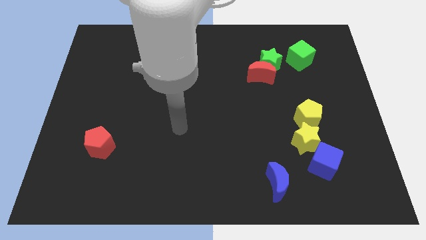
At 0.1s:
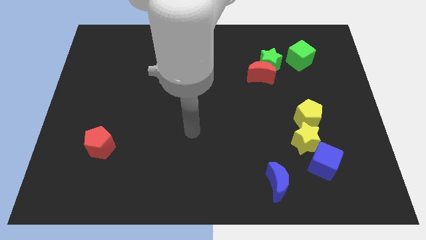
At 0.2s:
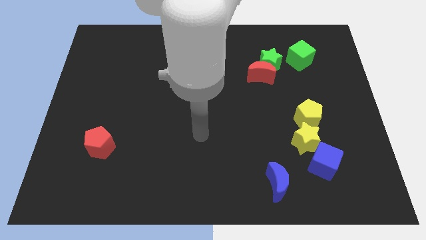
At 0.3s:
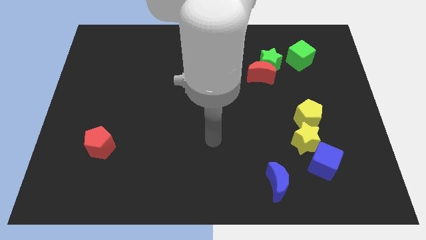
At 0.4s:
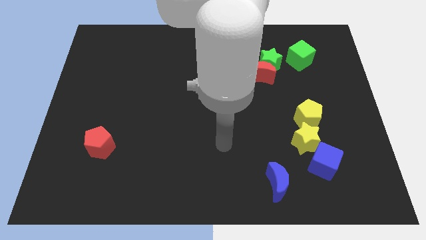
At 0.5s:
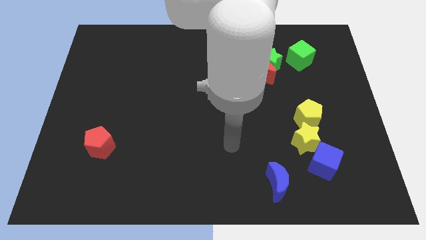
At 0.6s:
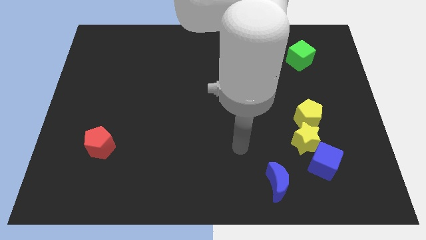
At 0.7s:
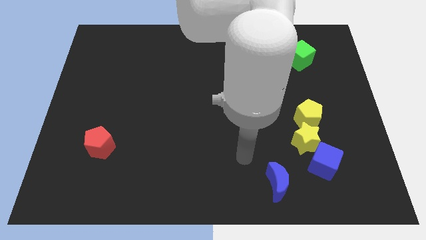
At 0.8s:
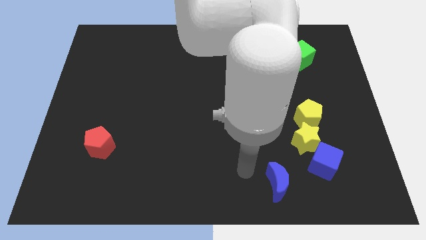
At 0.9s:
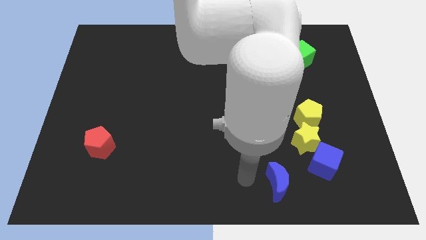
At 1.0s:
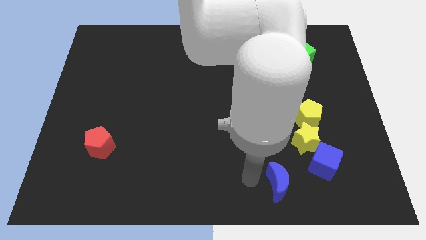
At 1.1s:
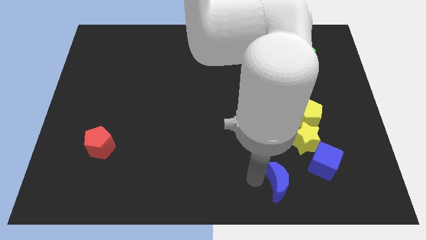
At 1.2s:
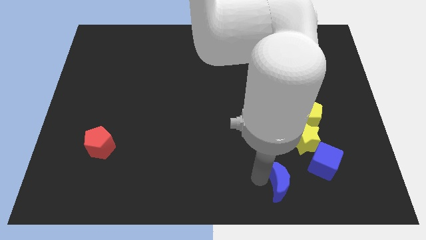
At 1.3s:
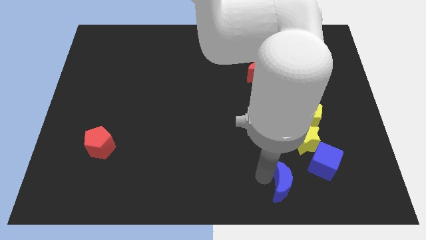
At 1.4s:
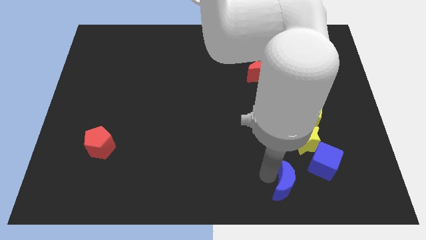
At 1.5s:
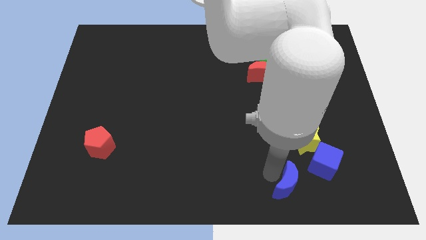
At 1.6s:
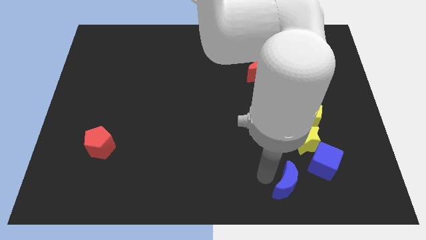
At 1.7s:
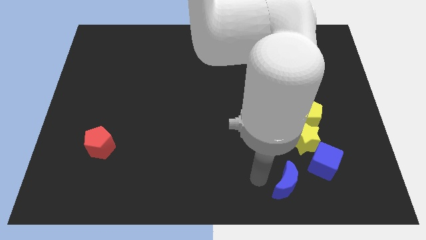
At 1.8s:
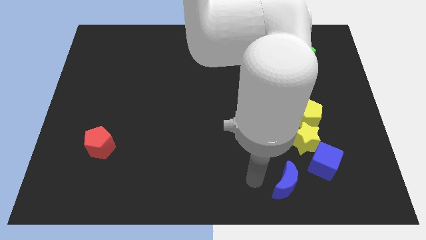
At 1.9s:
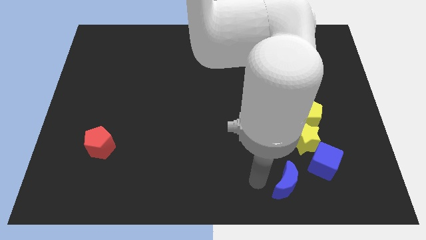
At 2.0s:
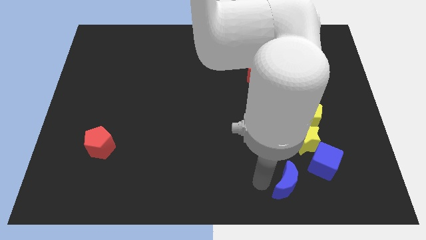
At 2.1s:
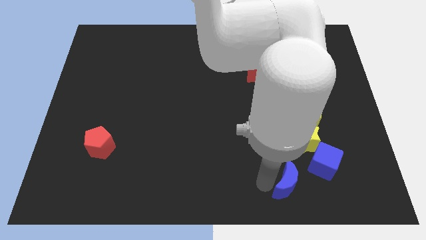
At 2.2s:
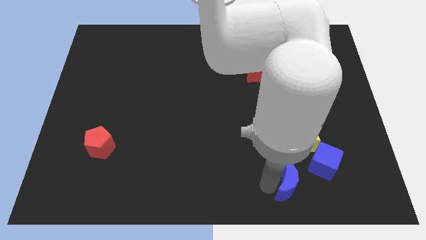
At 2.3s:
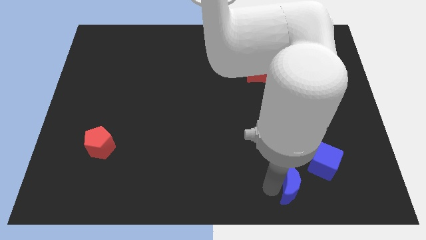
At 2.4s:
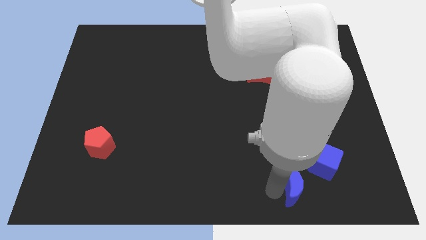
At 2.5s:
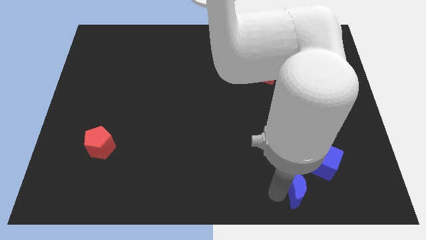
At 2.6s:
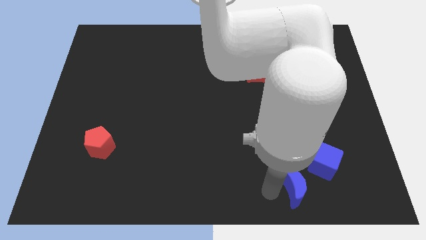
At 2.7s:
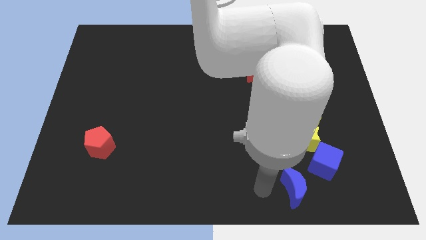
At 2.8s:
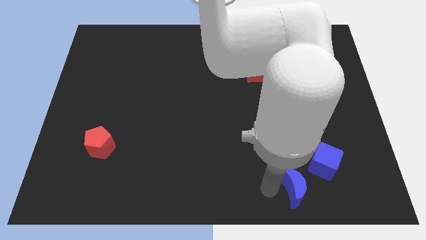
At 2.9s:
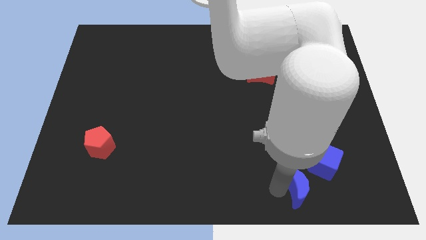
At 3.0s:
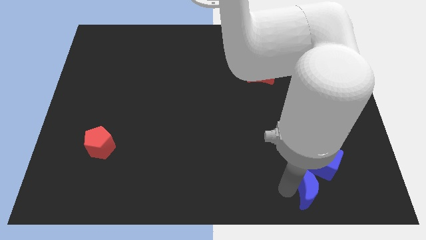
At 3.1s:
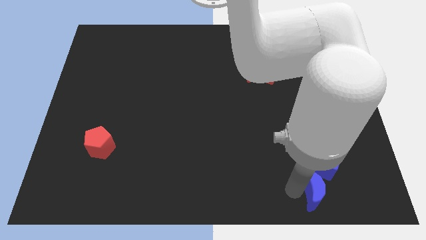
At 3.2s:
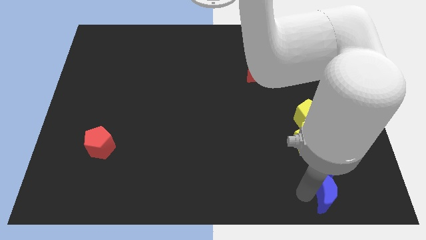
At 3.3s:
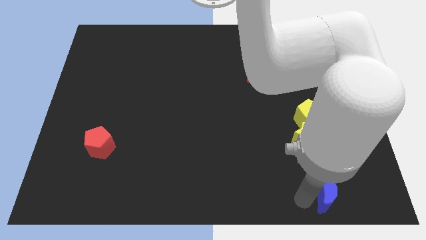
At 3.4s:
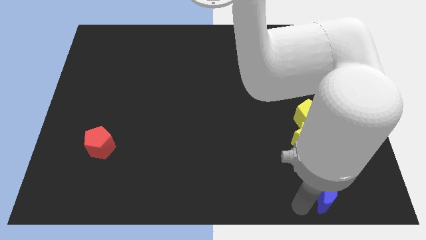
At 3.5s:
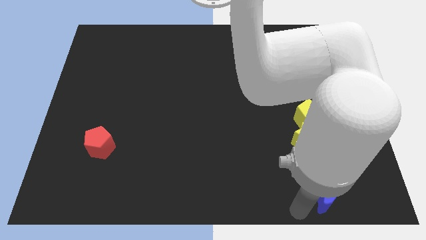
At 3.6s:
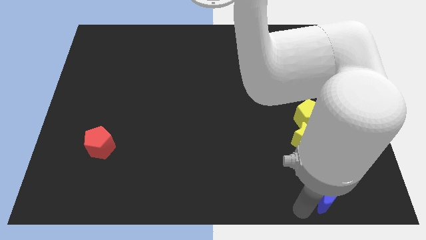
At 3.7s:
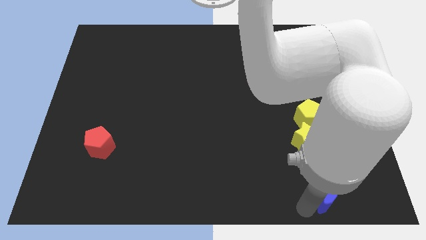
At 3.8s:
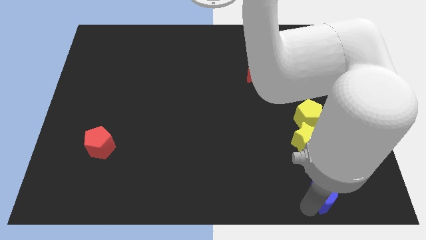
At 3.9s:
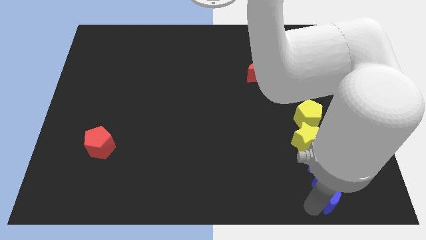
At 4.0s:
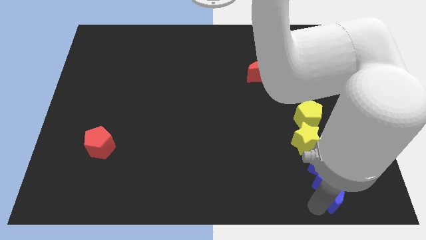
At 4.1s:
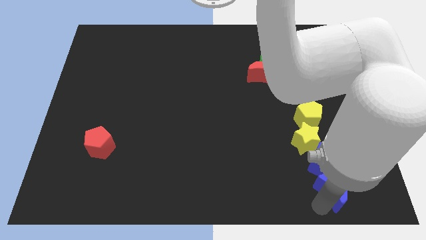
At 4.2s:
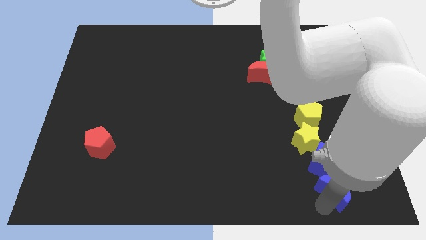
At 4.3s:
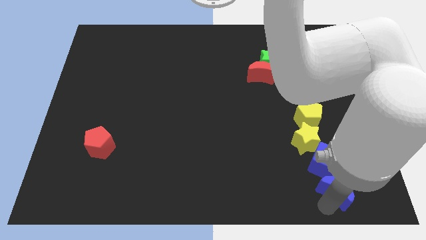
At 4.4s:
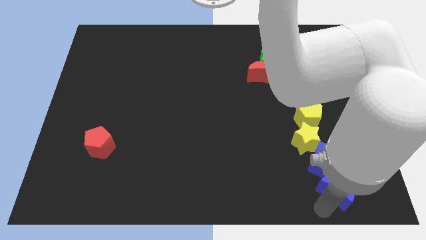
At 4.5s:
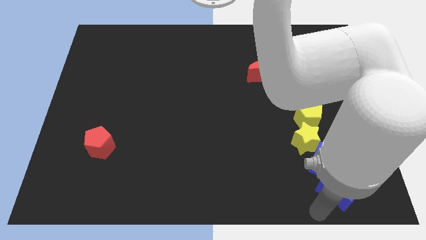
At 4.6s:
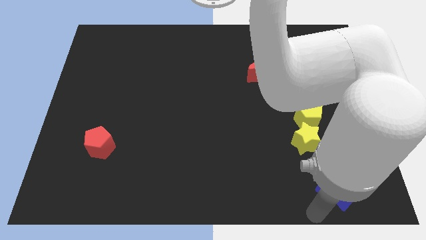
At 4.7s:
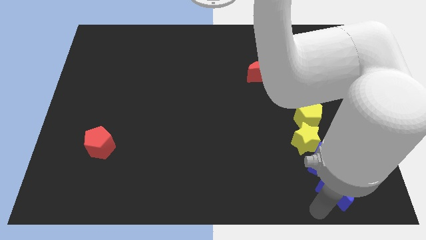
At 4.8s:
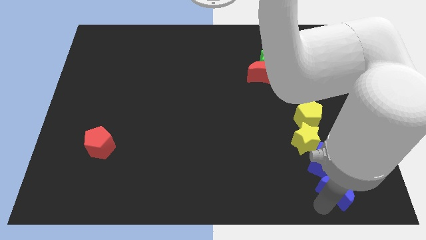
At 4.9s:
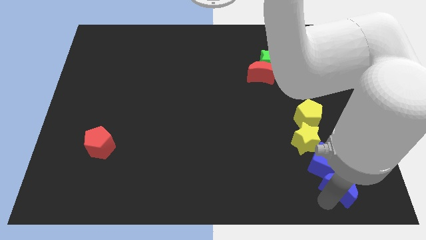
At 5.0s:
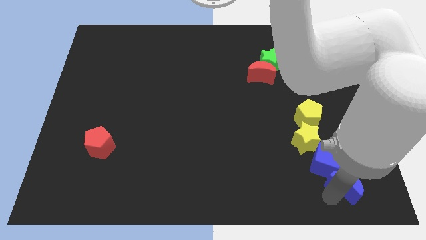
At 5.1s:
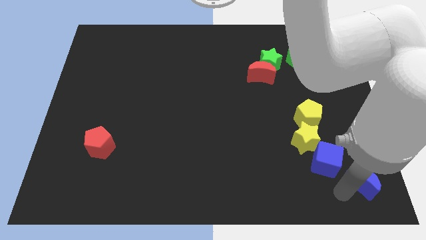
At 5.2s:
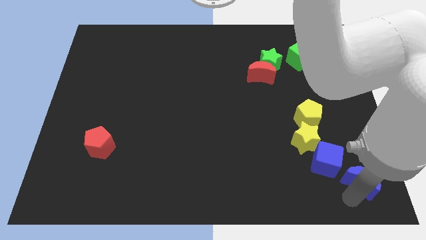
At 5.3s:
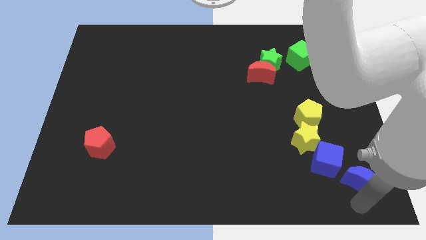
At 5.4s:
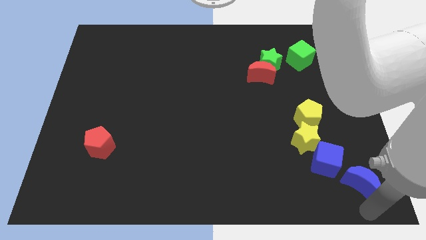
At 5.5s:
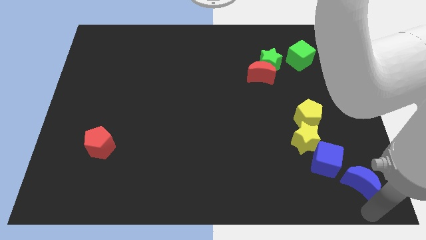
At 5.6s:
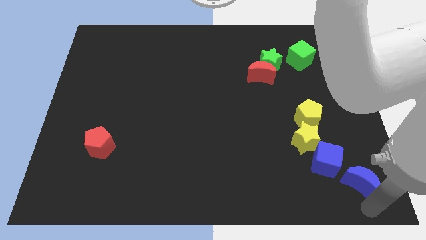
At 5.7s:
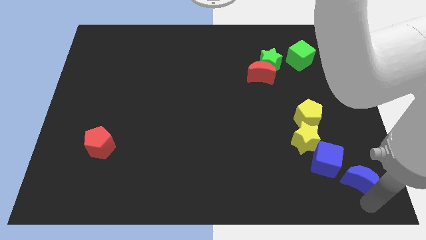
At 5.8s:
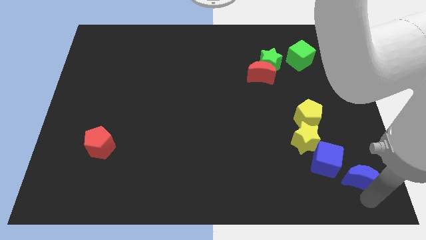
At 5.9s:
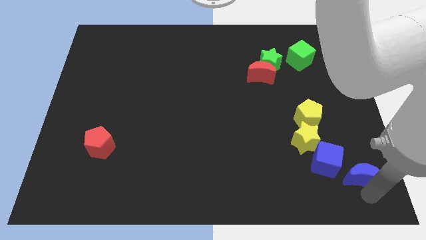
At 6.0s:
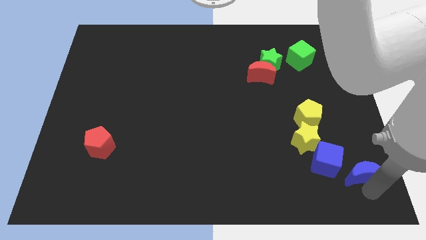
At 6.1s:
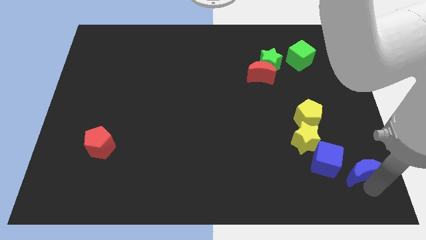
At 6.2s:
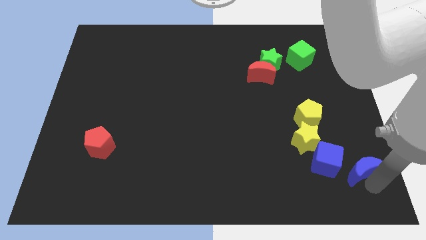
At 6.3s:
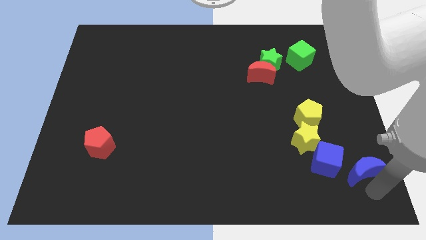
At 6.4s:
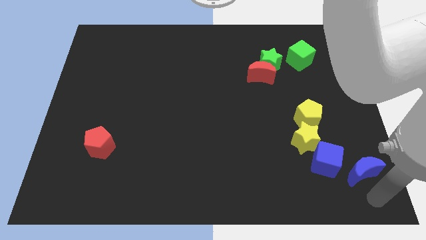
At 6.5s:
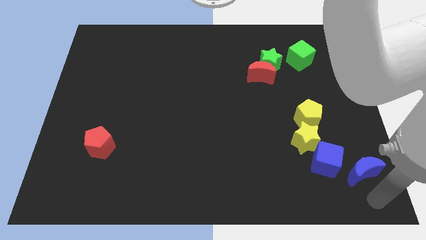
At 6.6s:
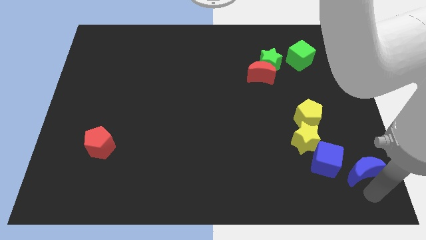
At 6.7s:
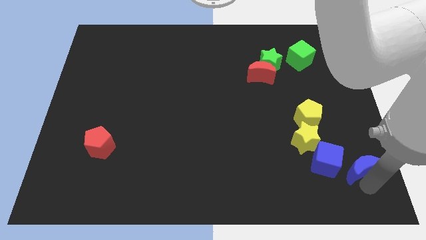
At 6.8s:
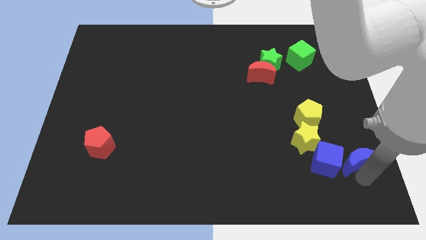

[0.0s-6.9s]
push the blue moon to the top right side of the blue cube

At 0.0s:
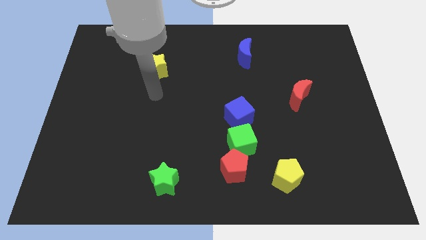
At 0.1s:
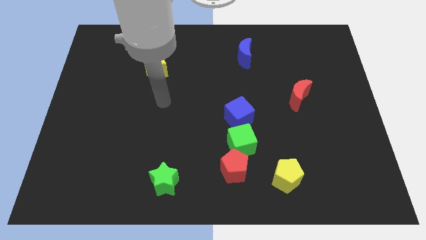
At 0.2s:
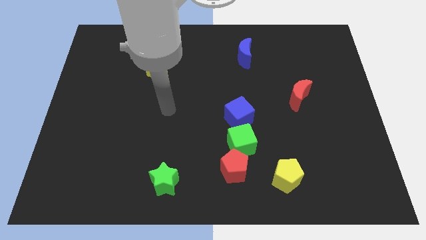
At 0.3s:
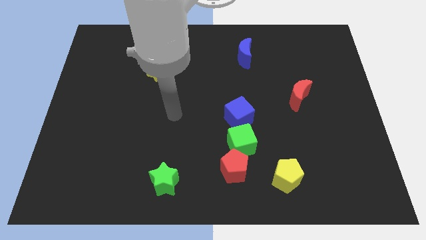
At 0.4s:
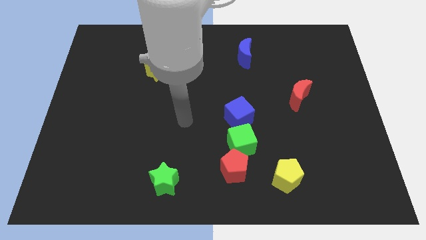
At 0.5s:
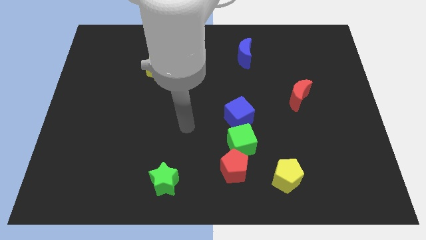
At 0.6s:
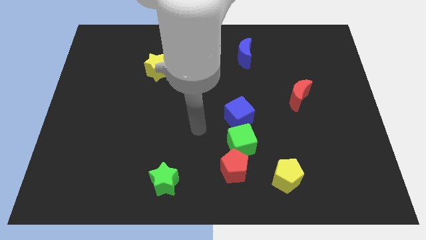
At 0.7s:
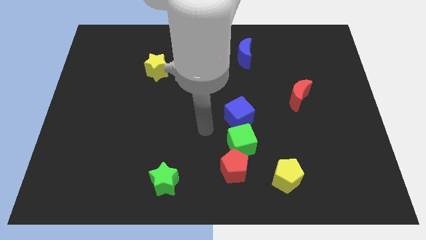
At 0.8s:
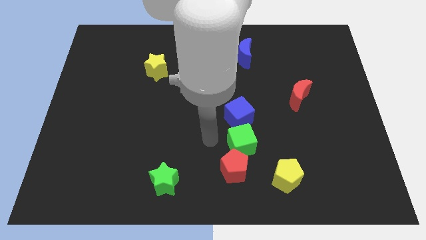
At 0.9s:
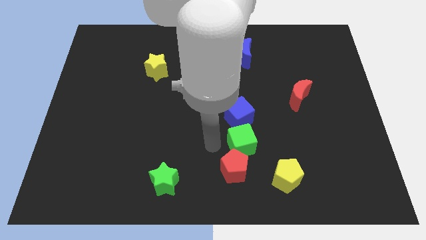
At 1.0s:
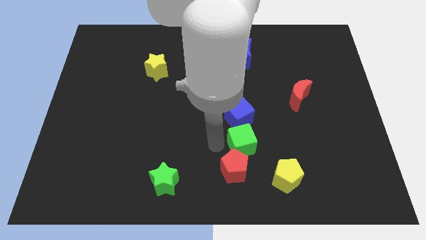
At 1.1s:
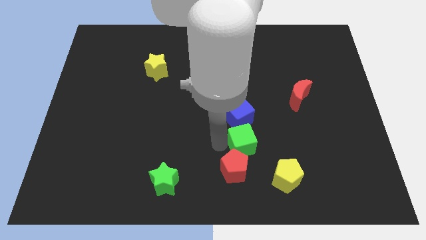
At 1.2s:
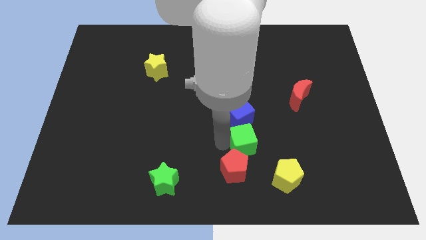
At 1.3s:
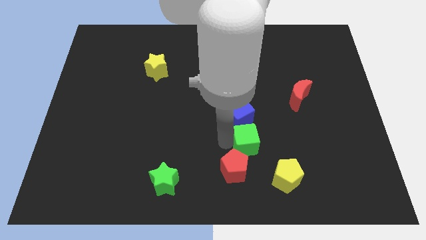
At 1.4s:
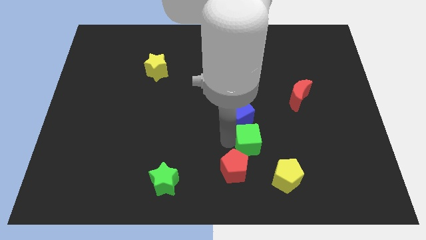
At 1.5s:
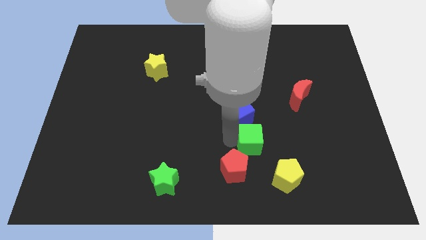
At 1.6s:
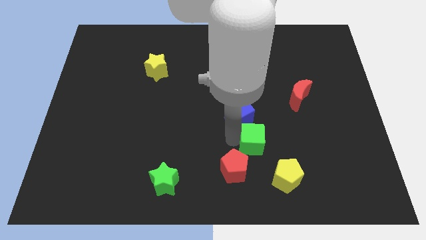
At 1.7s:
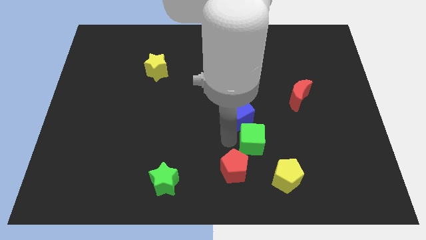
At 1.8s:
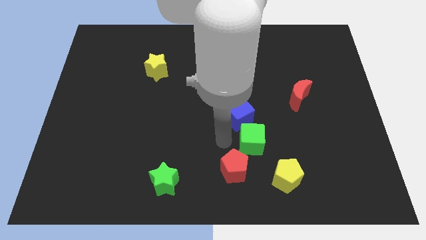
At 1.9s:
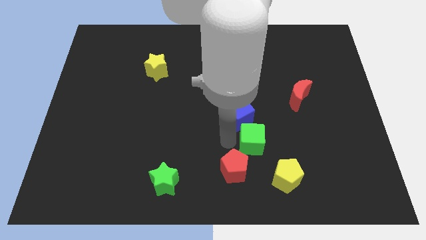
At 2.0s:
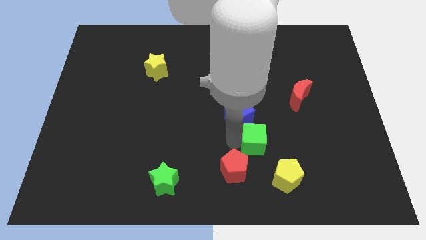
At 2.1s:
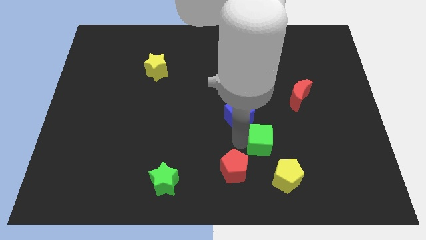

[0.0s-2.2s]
slide the green cube above the yellow pentagon
